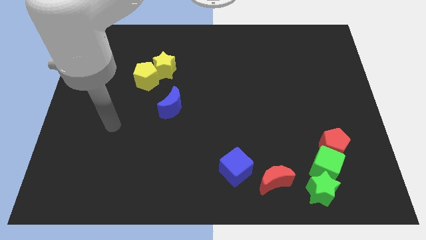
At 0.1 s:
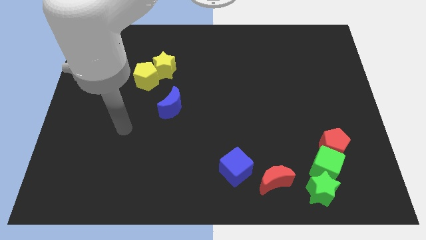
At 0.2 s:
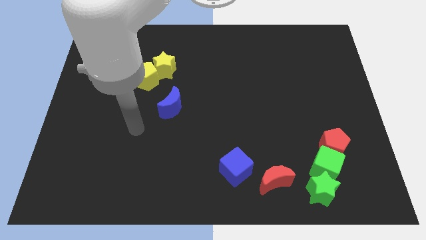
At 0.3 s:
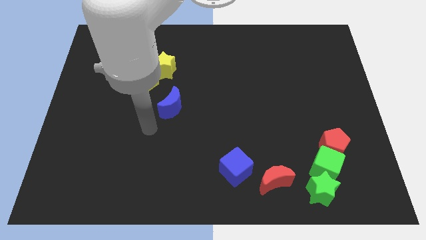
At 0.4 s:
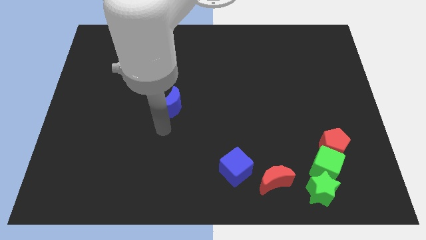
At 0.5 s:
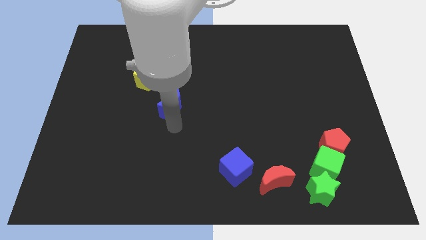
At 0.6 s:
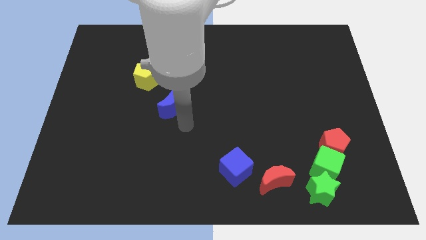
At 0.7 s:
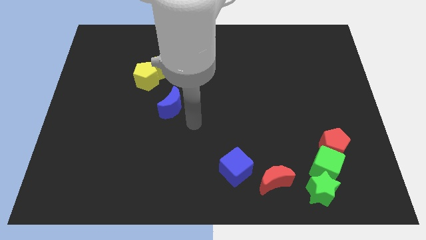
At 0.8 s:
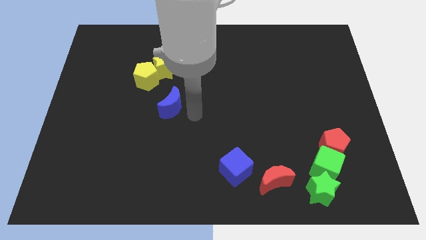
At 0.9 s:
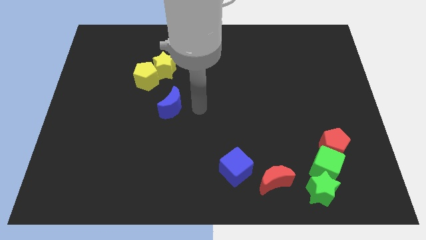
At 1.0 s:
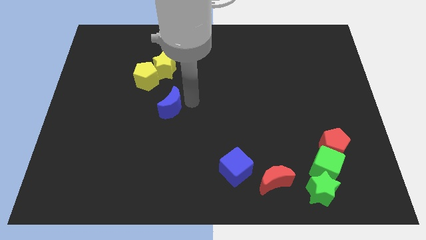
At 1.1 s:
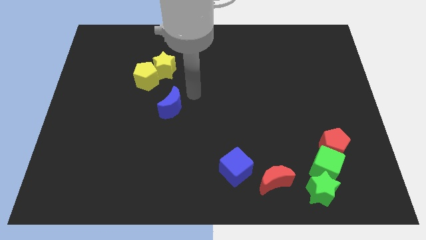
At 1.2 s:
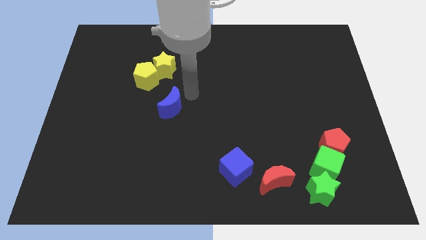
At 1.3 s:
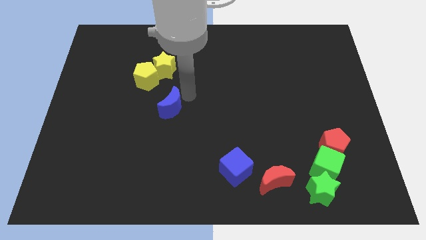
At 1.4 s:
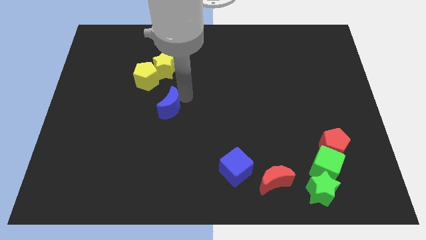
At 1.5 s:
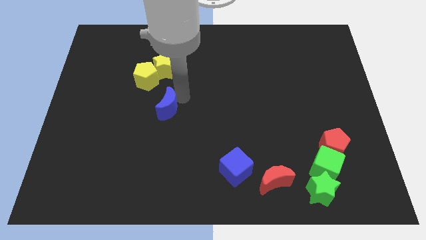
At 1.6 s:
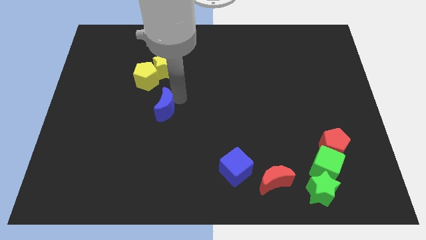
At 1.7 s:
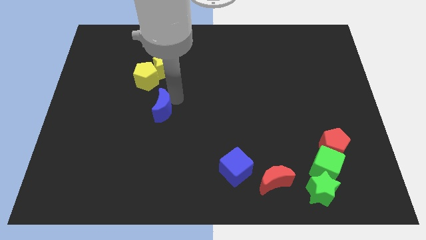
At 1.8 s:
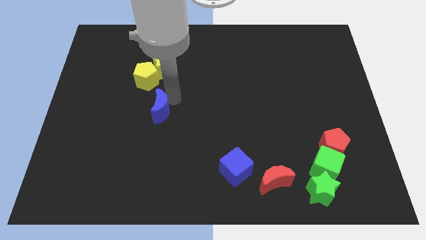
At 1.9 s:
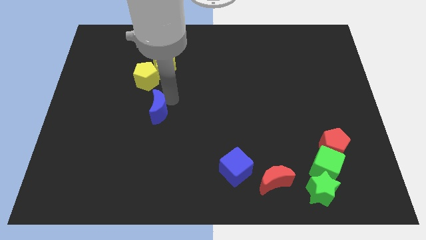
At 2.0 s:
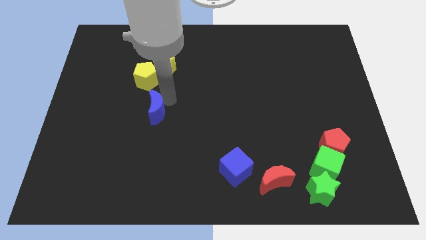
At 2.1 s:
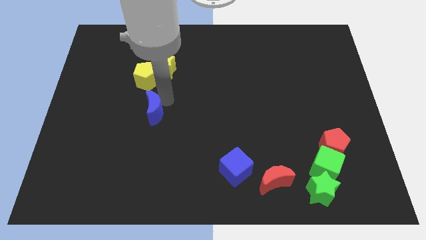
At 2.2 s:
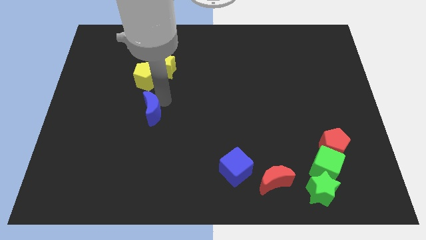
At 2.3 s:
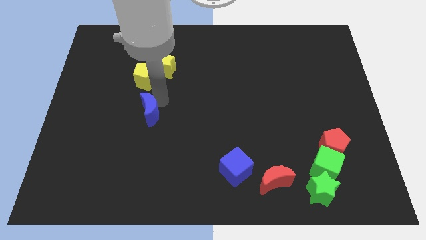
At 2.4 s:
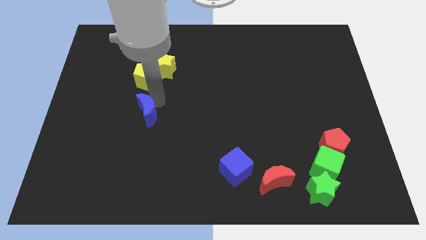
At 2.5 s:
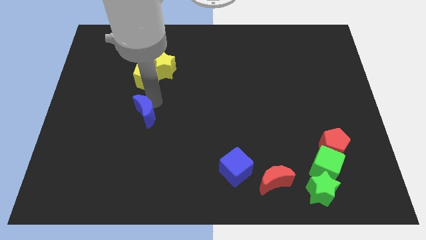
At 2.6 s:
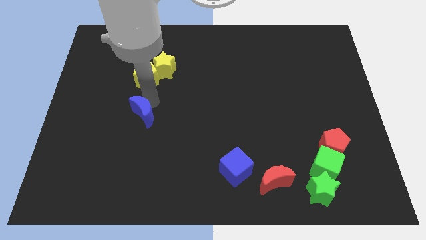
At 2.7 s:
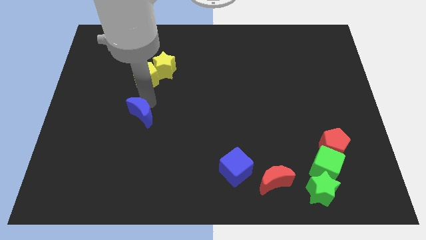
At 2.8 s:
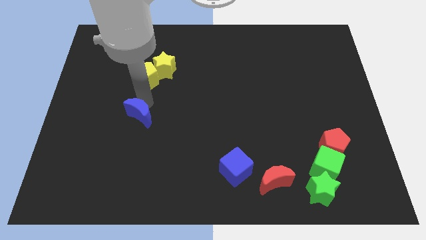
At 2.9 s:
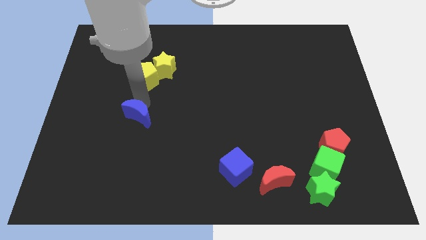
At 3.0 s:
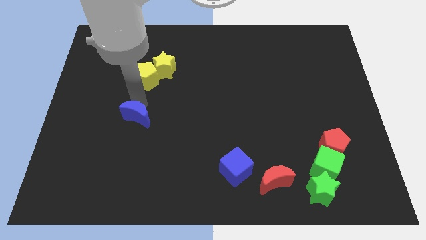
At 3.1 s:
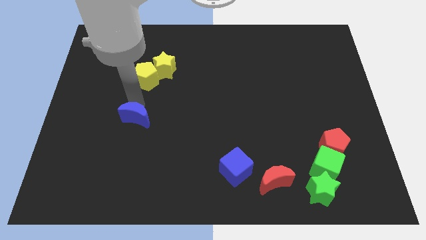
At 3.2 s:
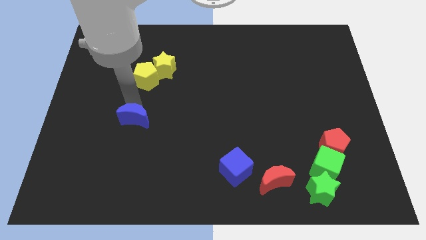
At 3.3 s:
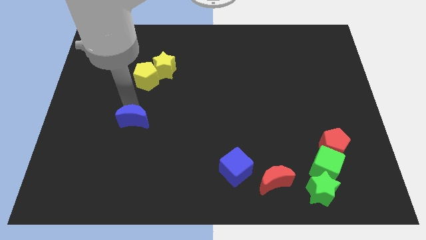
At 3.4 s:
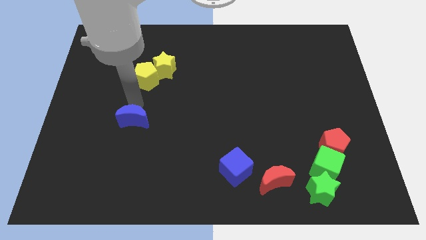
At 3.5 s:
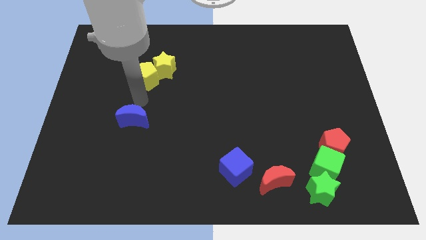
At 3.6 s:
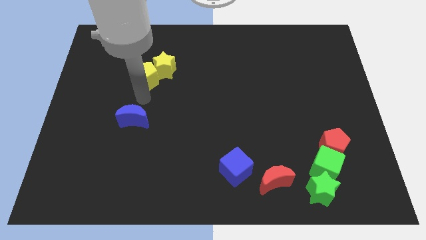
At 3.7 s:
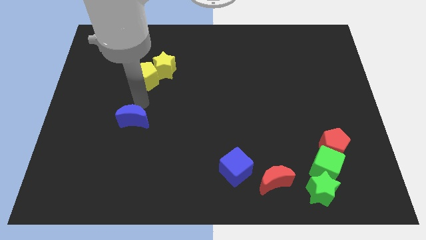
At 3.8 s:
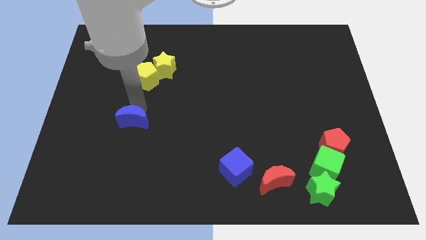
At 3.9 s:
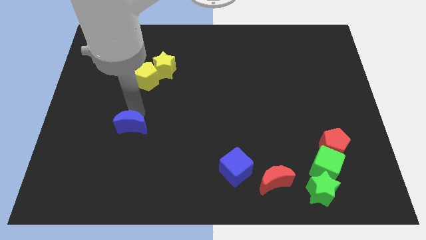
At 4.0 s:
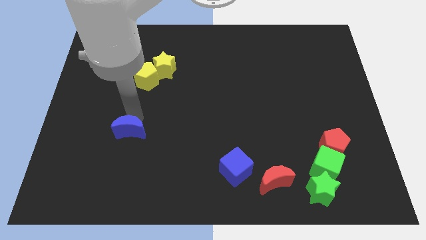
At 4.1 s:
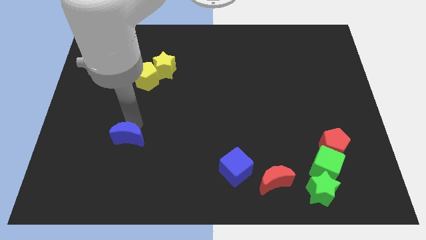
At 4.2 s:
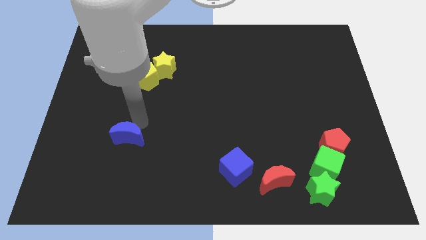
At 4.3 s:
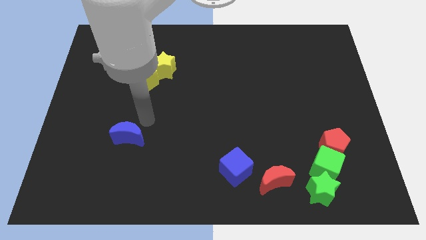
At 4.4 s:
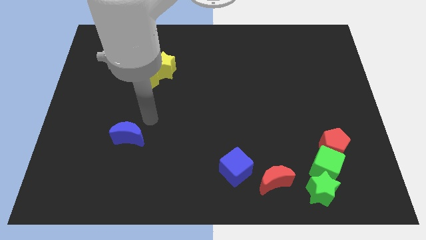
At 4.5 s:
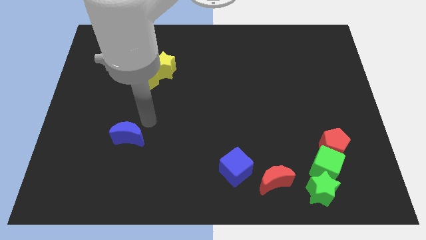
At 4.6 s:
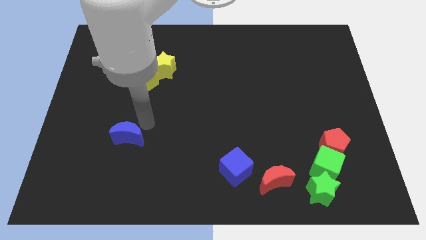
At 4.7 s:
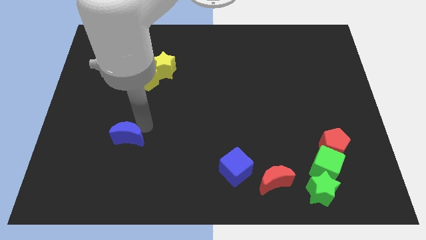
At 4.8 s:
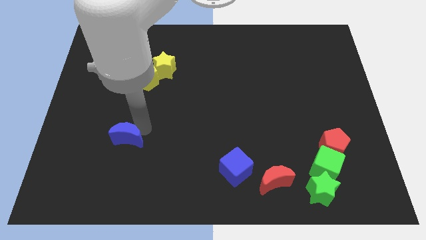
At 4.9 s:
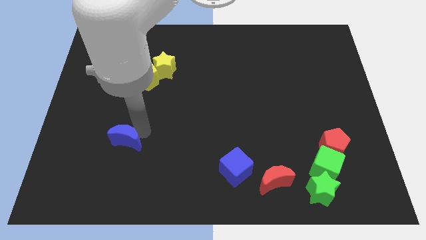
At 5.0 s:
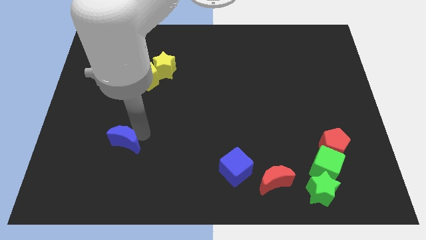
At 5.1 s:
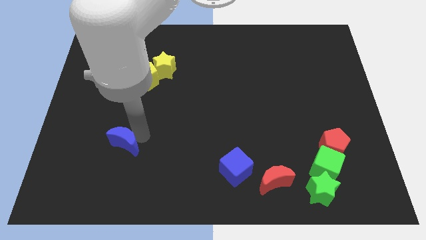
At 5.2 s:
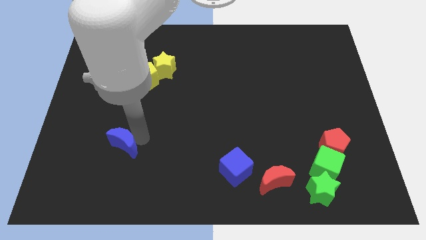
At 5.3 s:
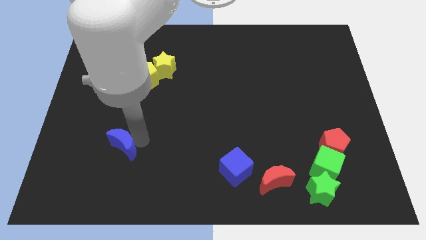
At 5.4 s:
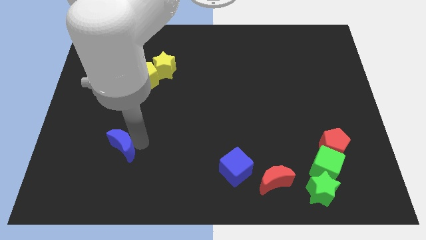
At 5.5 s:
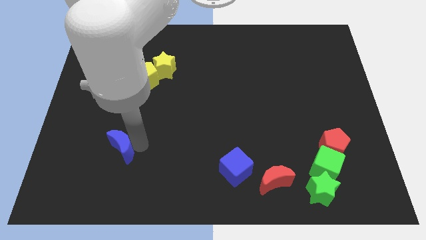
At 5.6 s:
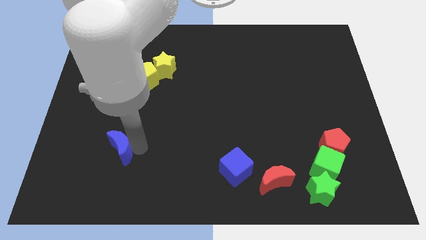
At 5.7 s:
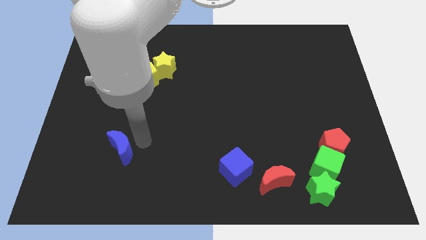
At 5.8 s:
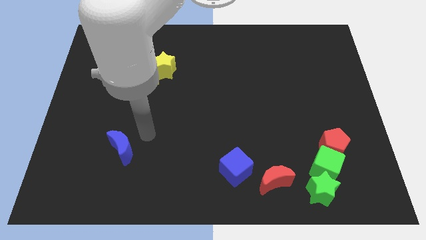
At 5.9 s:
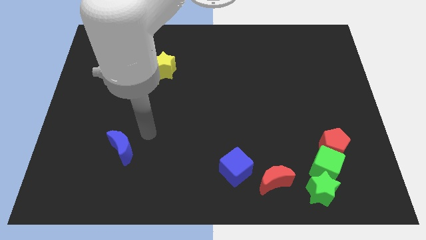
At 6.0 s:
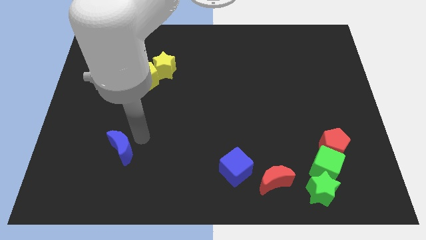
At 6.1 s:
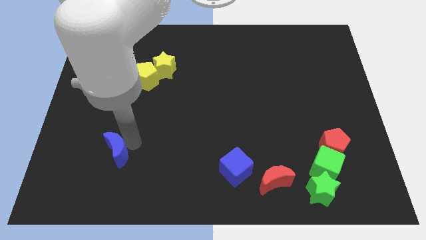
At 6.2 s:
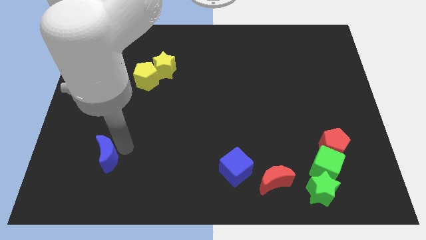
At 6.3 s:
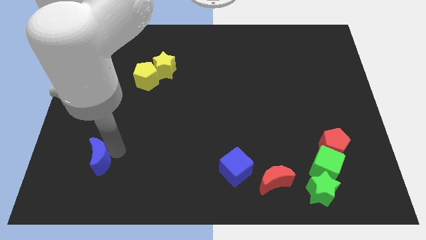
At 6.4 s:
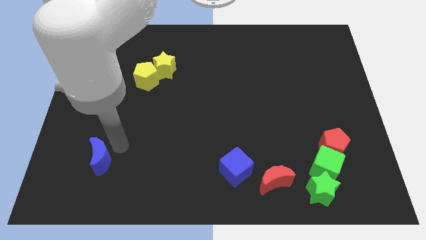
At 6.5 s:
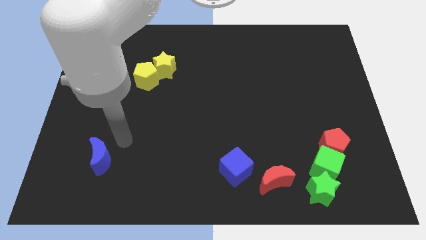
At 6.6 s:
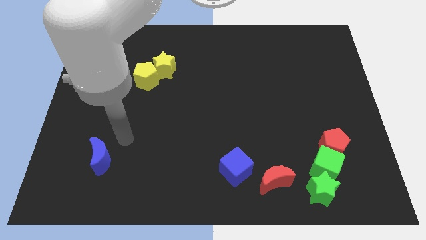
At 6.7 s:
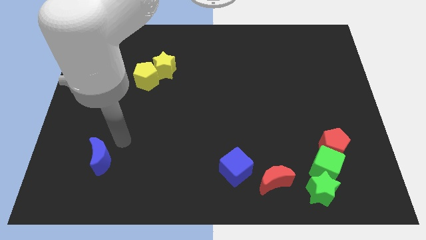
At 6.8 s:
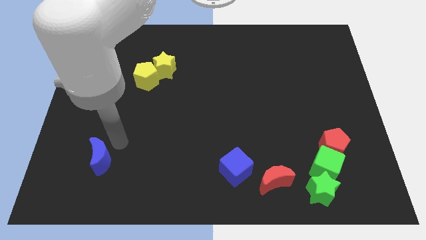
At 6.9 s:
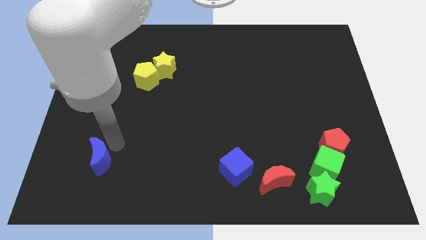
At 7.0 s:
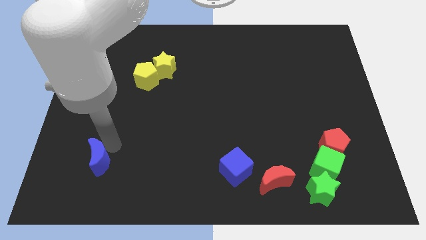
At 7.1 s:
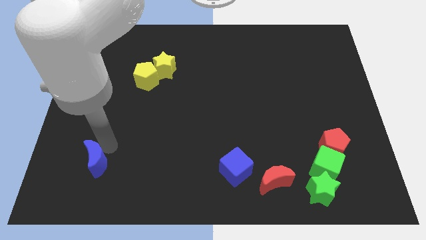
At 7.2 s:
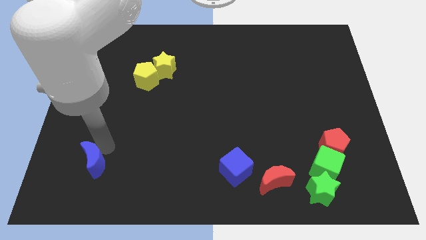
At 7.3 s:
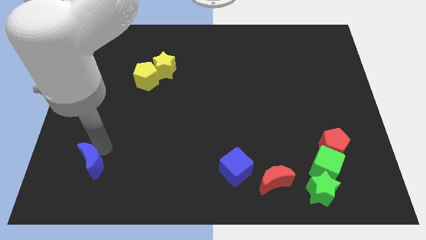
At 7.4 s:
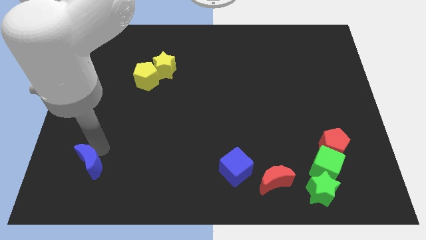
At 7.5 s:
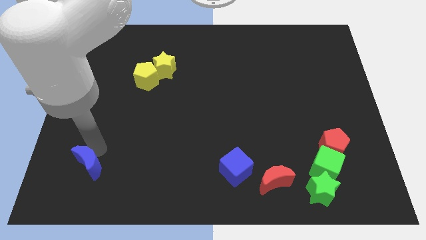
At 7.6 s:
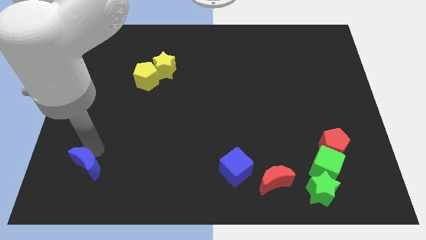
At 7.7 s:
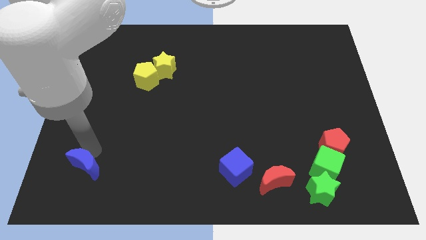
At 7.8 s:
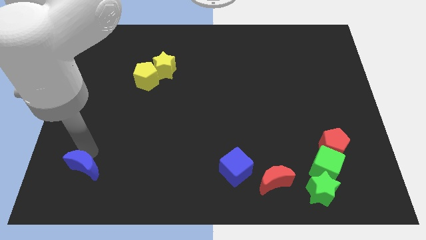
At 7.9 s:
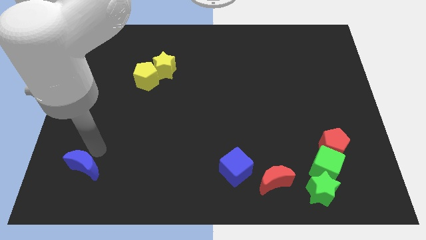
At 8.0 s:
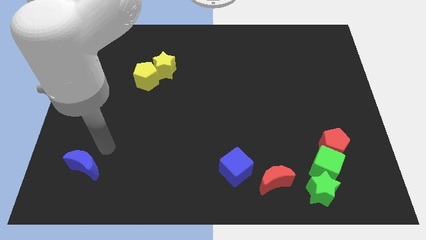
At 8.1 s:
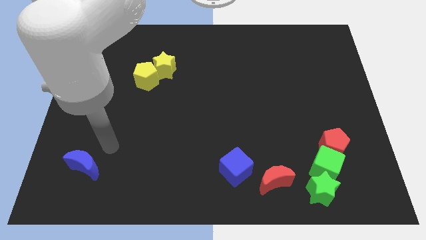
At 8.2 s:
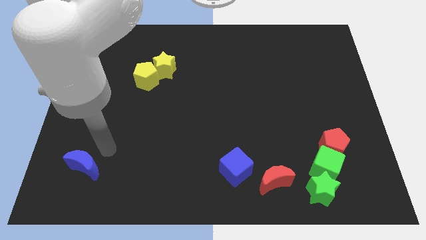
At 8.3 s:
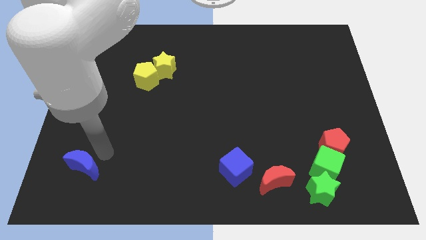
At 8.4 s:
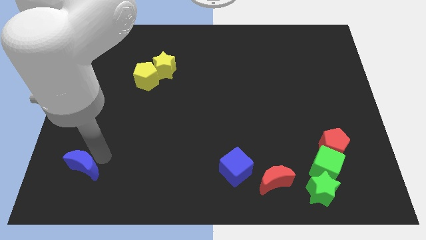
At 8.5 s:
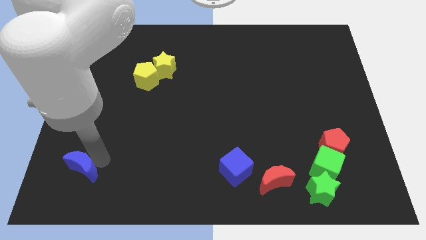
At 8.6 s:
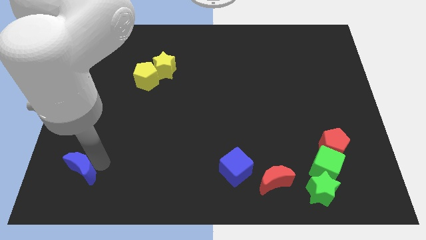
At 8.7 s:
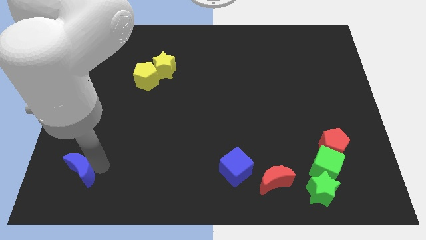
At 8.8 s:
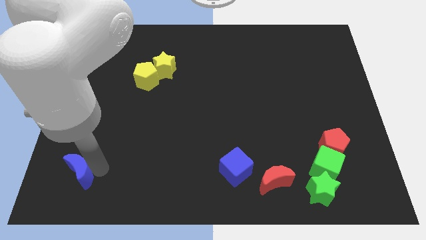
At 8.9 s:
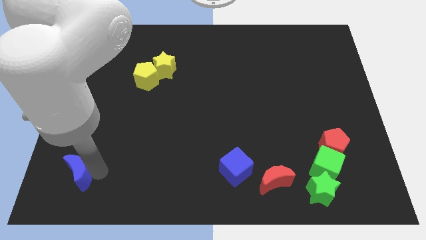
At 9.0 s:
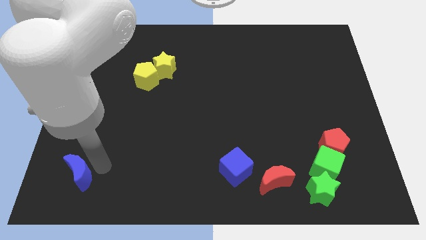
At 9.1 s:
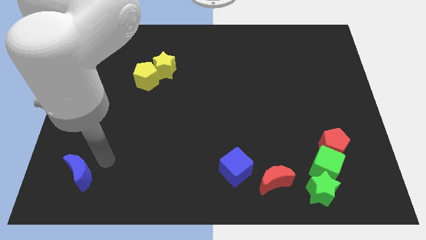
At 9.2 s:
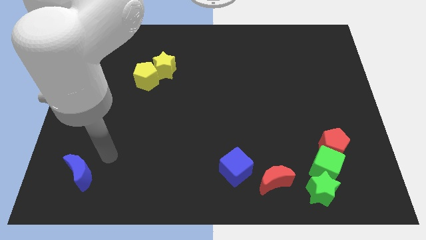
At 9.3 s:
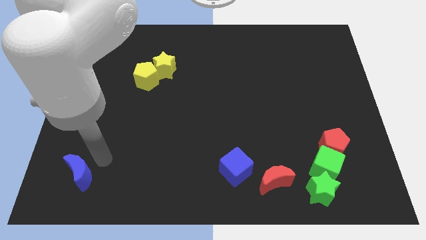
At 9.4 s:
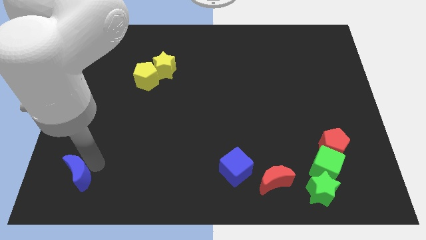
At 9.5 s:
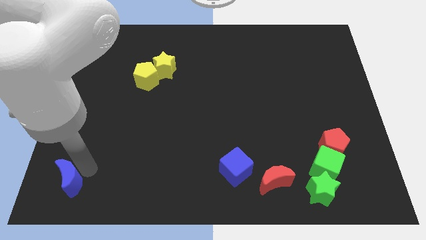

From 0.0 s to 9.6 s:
slide the blue moon to the lower left corner
